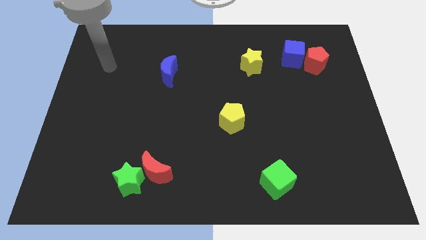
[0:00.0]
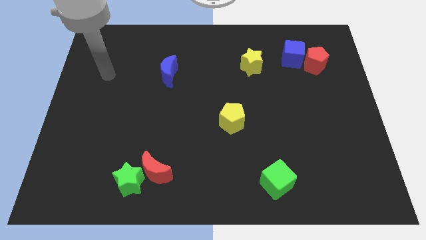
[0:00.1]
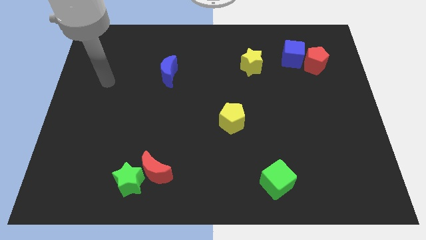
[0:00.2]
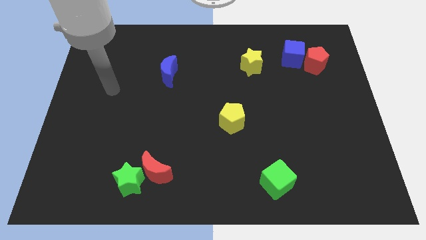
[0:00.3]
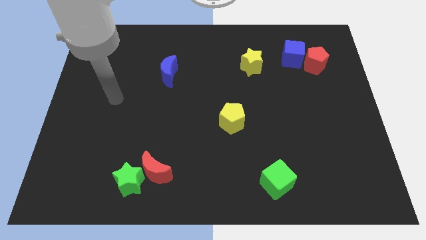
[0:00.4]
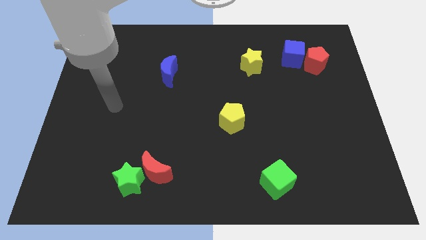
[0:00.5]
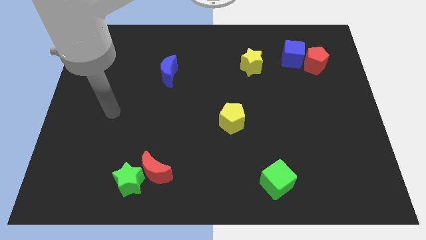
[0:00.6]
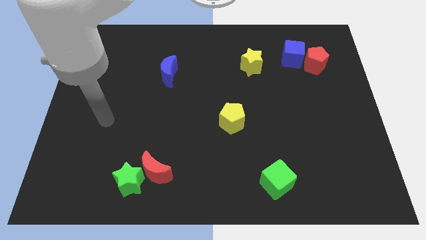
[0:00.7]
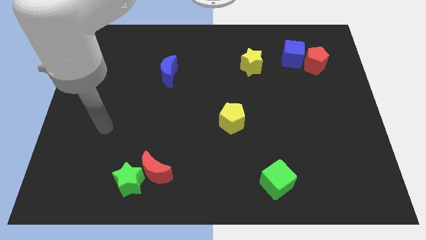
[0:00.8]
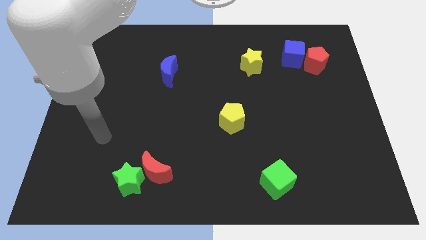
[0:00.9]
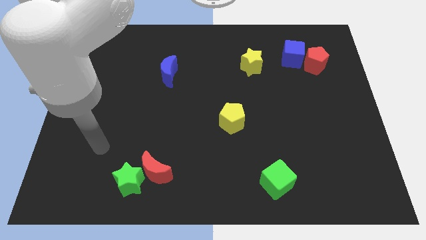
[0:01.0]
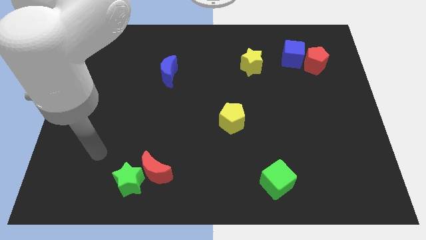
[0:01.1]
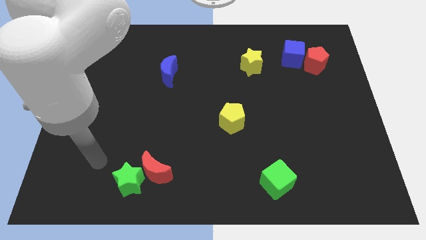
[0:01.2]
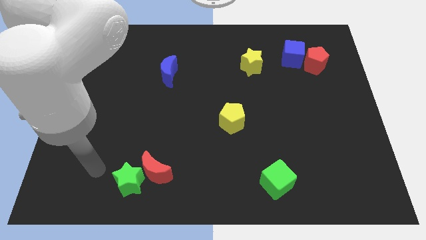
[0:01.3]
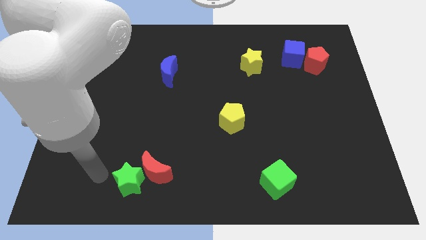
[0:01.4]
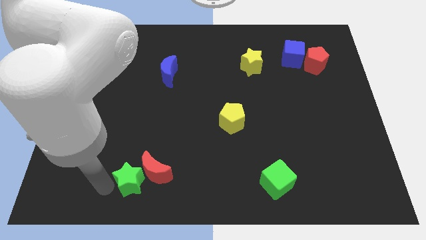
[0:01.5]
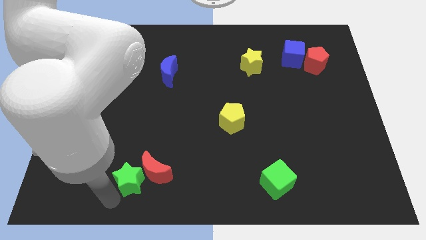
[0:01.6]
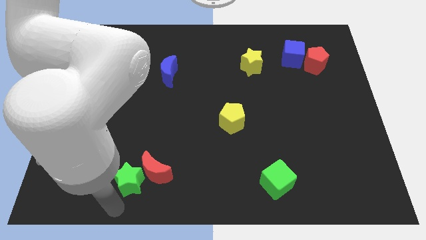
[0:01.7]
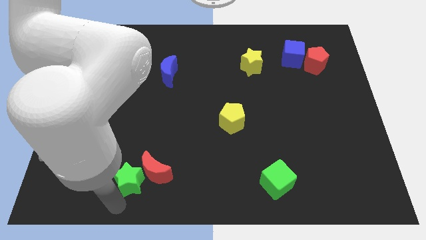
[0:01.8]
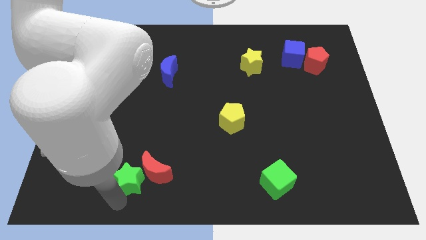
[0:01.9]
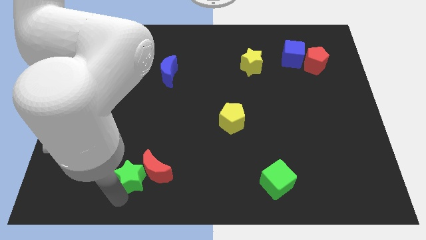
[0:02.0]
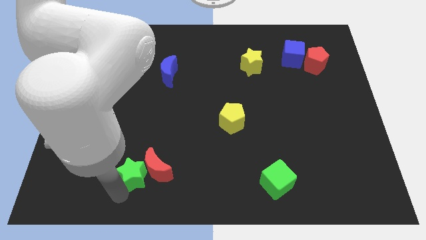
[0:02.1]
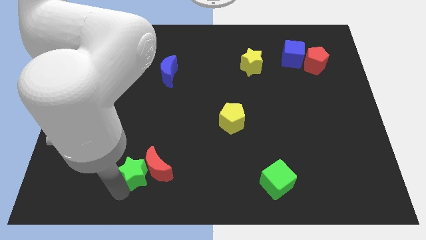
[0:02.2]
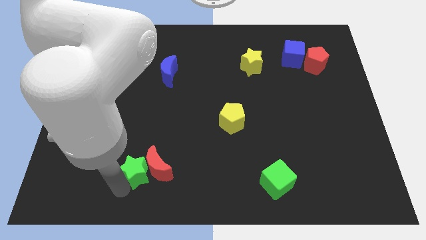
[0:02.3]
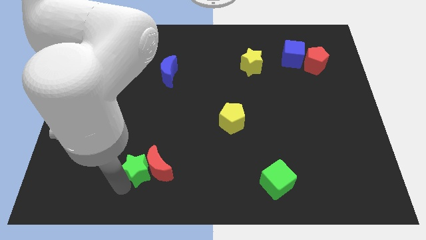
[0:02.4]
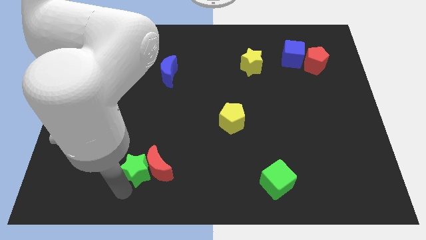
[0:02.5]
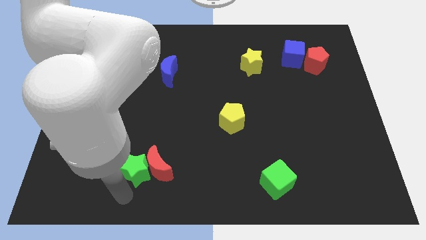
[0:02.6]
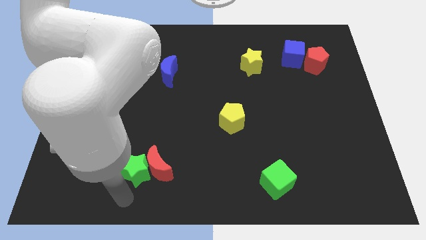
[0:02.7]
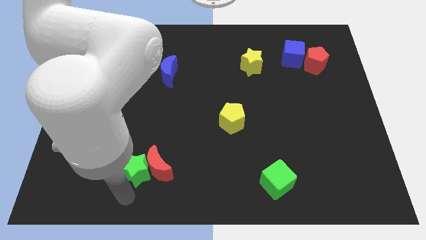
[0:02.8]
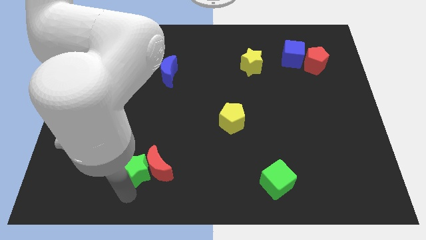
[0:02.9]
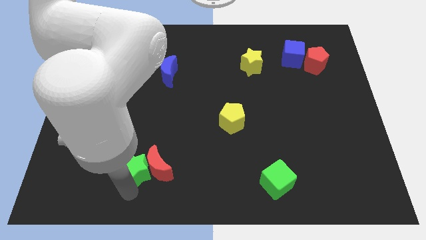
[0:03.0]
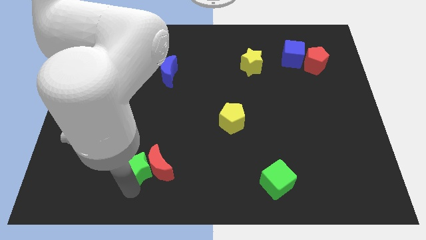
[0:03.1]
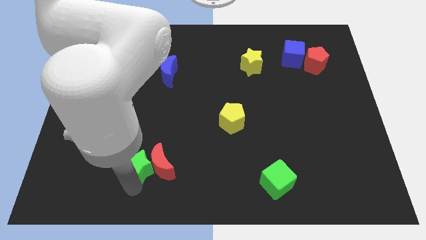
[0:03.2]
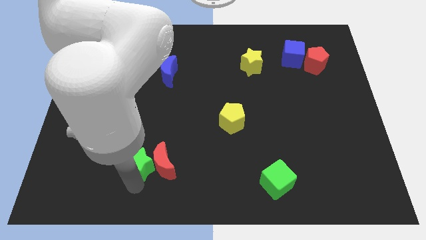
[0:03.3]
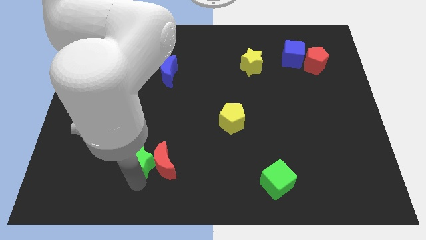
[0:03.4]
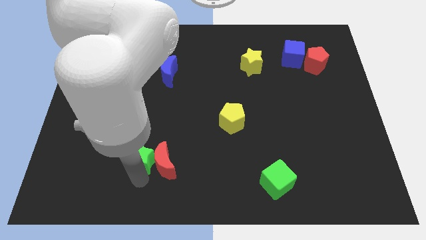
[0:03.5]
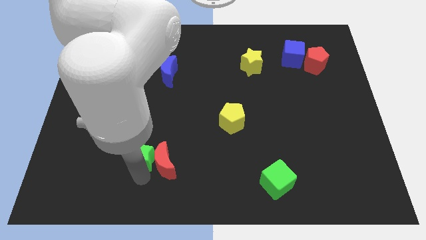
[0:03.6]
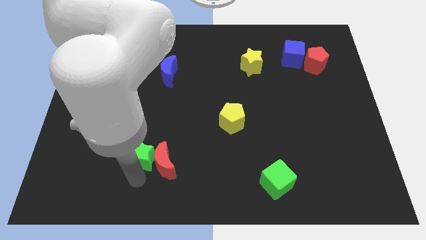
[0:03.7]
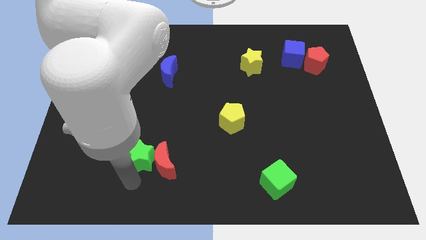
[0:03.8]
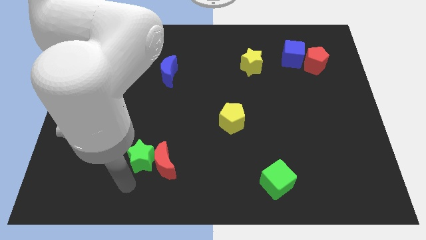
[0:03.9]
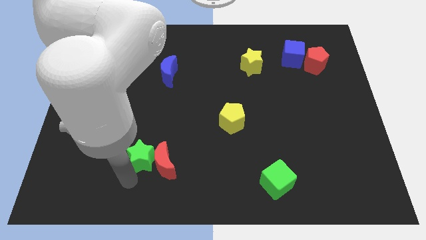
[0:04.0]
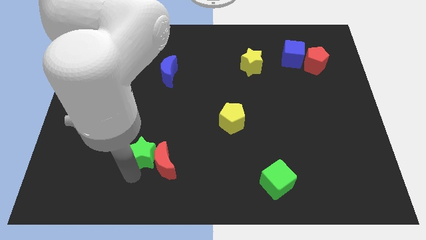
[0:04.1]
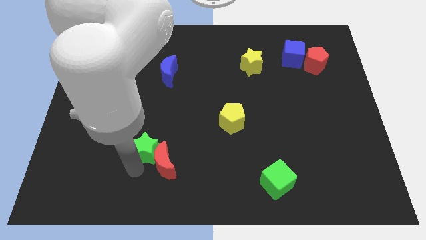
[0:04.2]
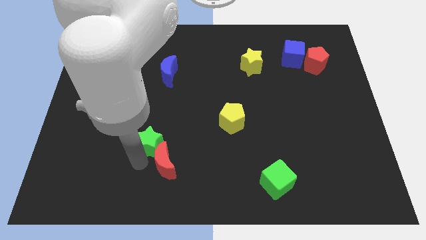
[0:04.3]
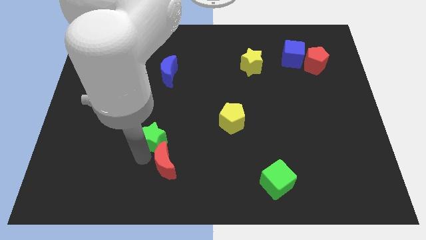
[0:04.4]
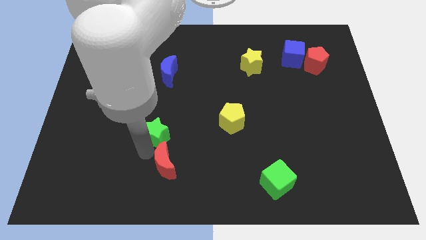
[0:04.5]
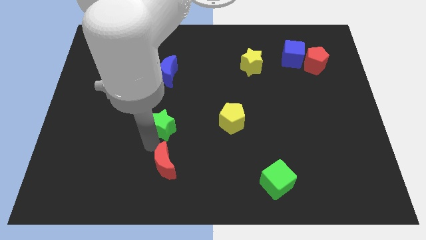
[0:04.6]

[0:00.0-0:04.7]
move the green star to the bottom side of the blue moon

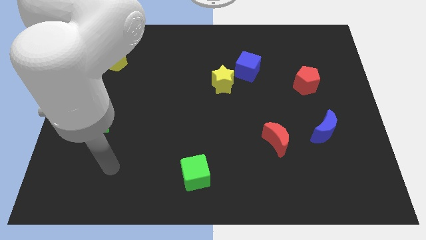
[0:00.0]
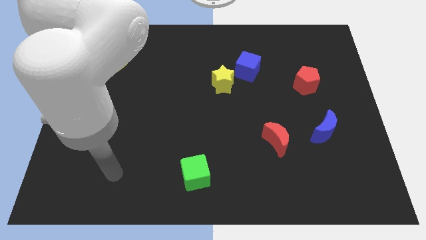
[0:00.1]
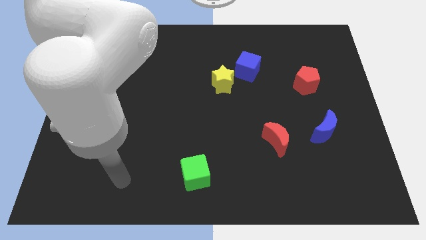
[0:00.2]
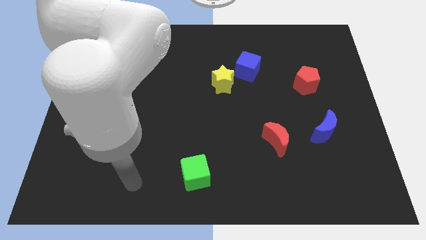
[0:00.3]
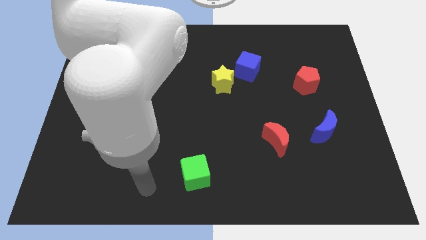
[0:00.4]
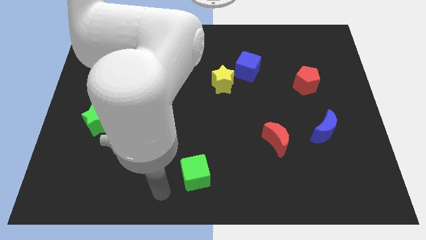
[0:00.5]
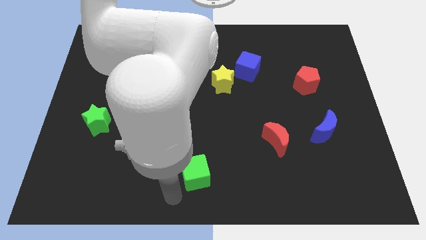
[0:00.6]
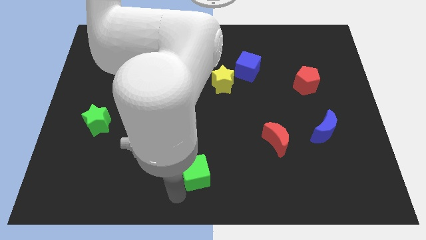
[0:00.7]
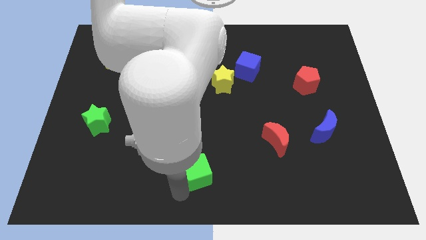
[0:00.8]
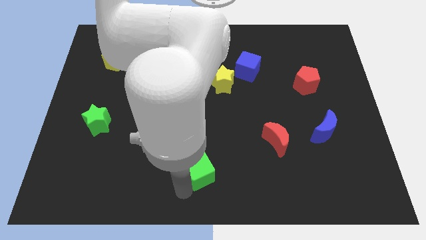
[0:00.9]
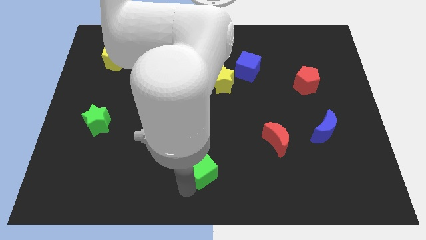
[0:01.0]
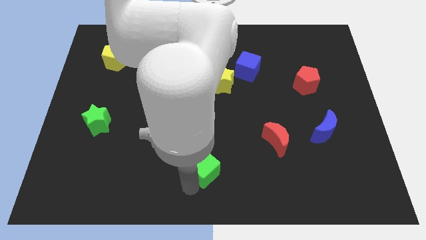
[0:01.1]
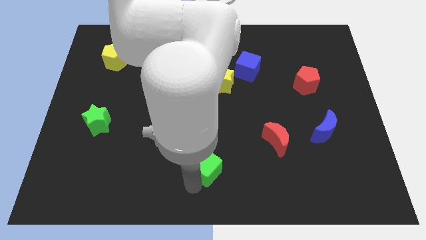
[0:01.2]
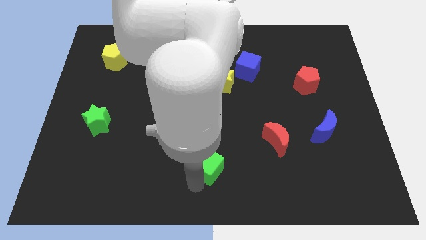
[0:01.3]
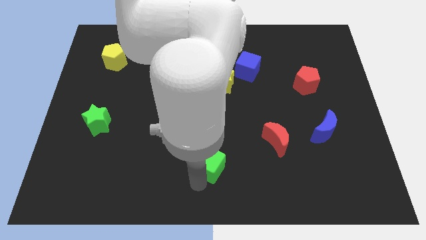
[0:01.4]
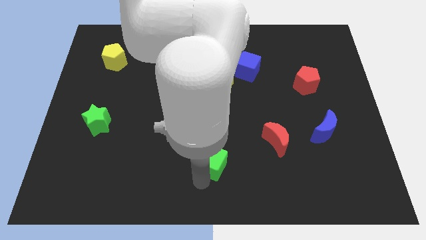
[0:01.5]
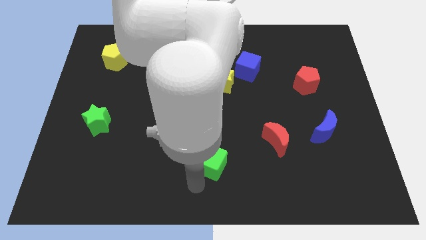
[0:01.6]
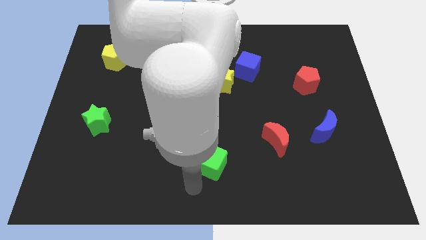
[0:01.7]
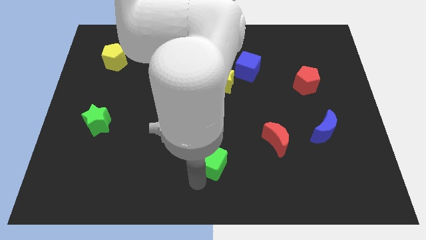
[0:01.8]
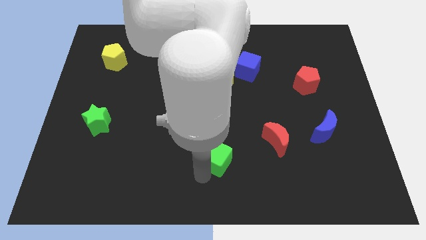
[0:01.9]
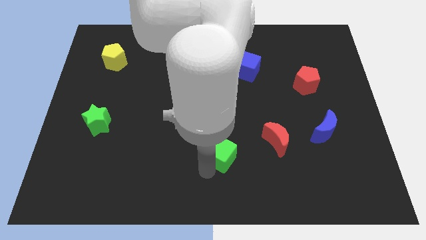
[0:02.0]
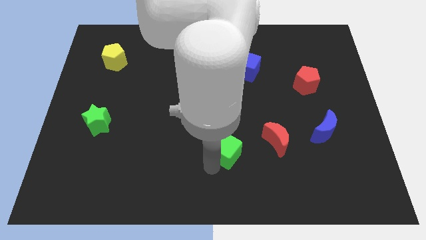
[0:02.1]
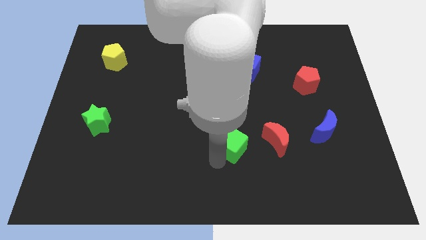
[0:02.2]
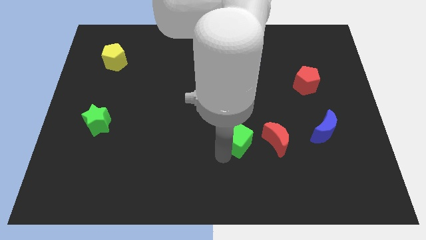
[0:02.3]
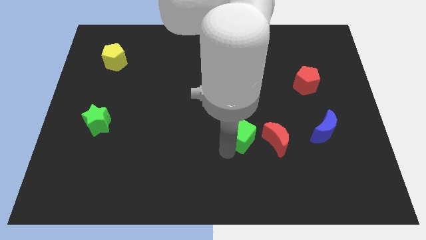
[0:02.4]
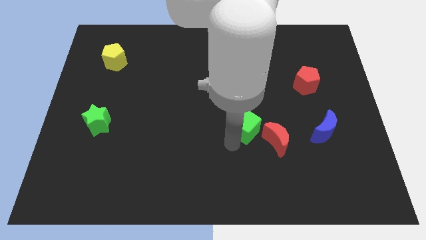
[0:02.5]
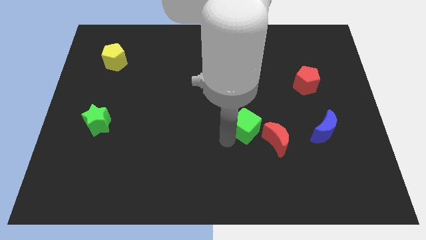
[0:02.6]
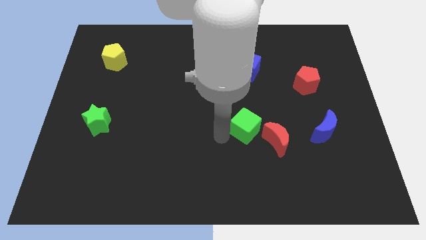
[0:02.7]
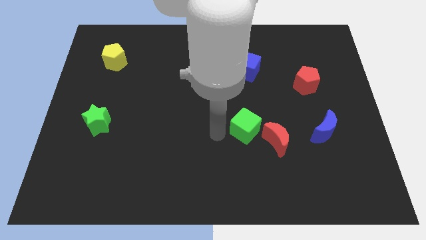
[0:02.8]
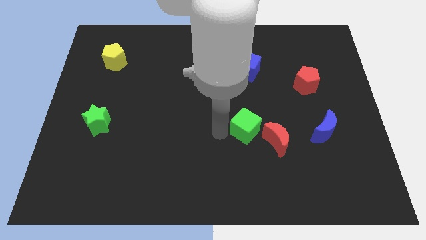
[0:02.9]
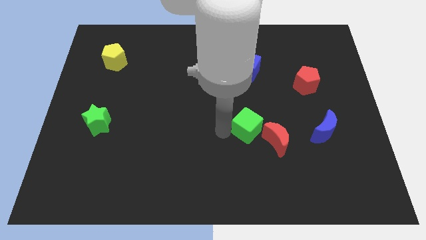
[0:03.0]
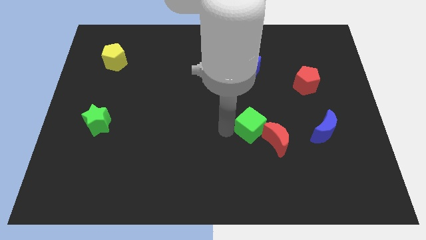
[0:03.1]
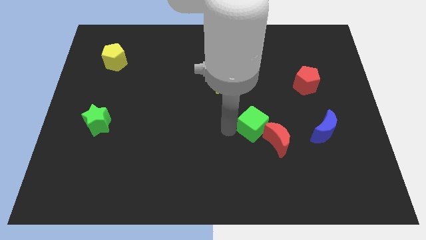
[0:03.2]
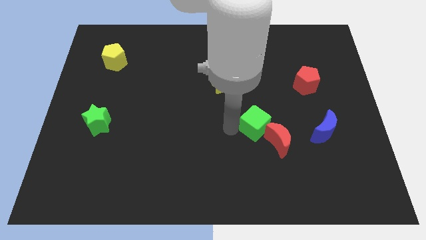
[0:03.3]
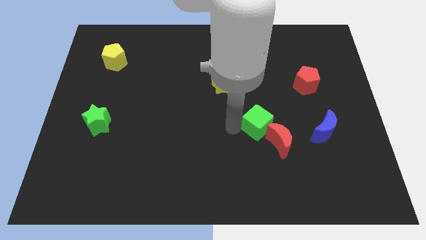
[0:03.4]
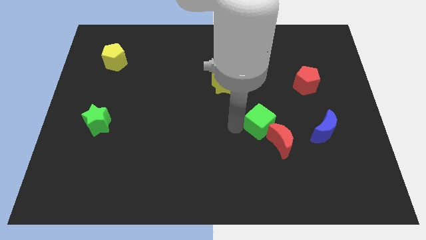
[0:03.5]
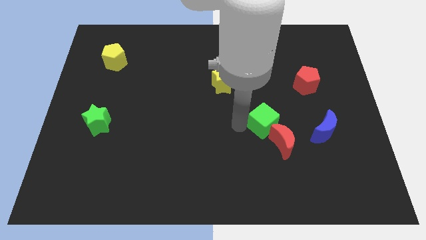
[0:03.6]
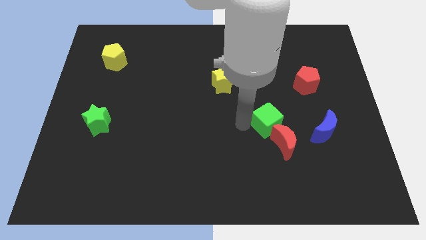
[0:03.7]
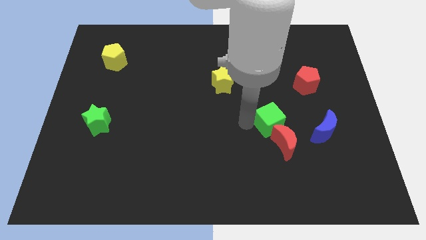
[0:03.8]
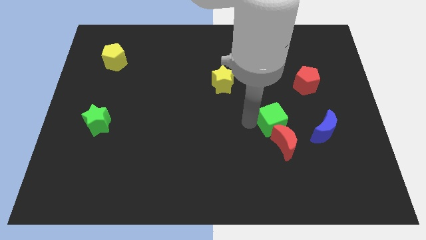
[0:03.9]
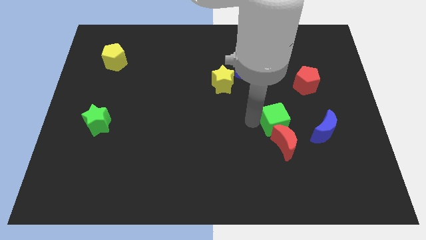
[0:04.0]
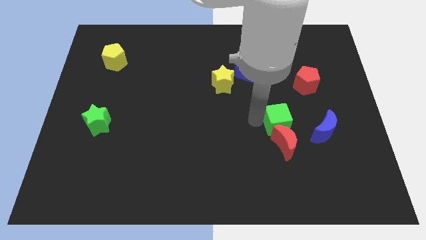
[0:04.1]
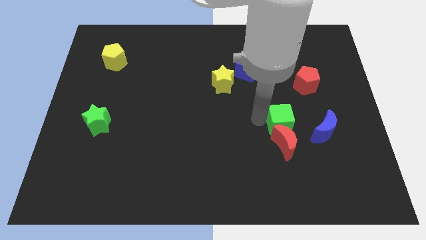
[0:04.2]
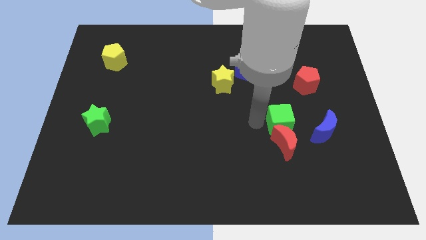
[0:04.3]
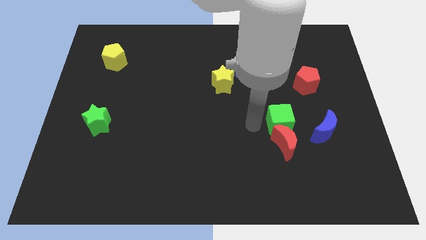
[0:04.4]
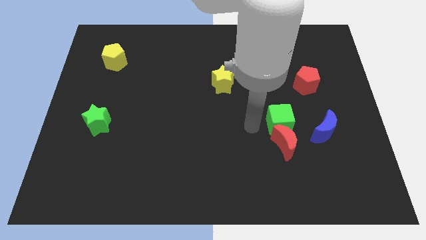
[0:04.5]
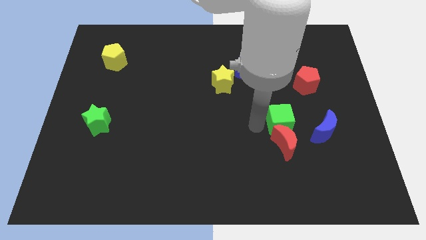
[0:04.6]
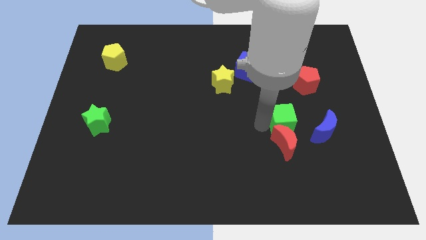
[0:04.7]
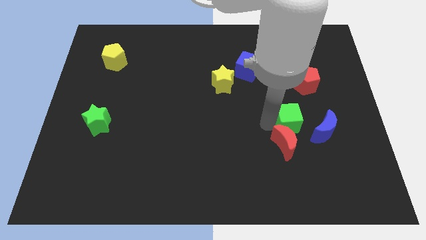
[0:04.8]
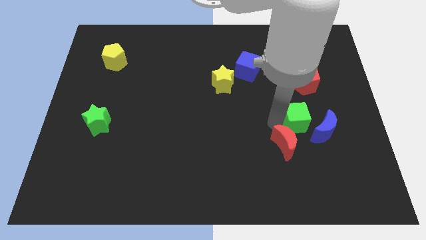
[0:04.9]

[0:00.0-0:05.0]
push the green cube to the bottom of the red pentagon
